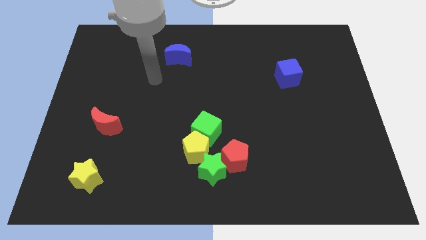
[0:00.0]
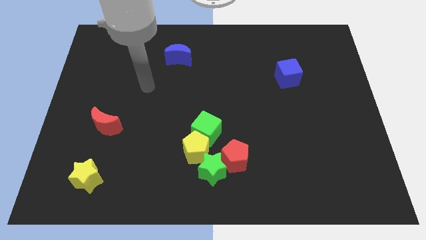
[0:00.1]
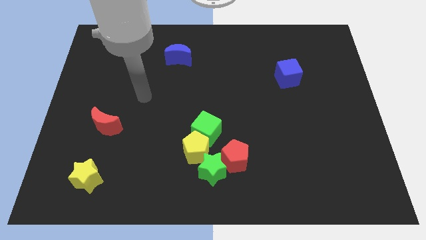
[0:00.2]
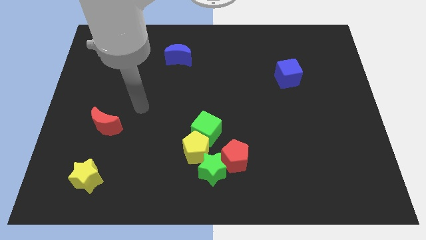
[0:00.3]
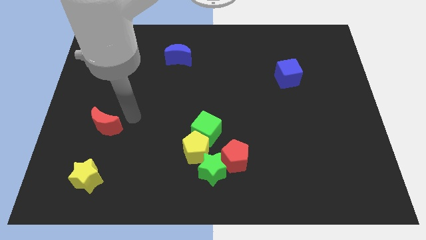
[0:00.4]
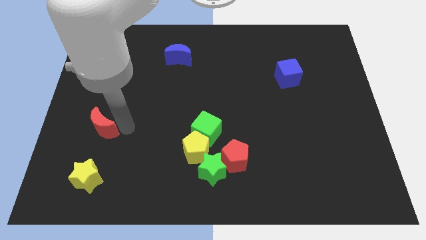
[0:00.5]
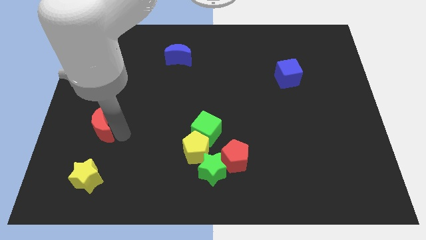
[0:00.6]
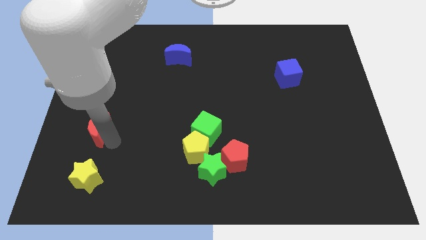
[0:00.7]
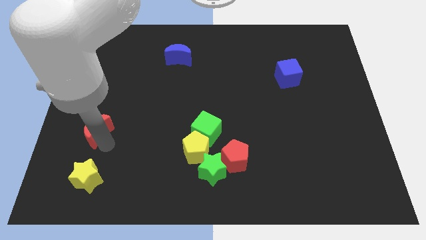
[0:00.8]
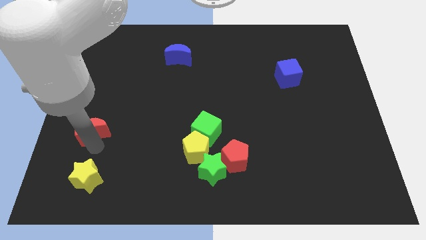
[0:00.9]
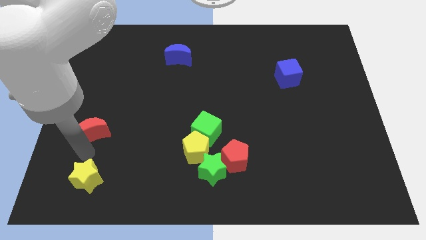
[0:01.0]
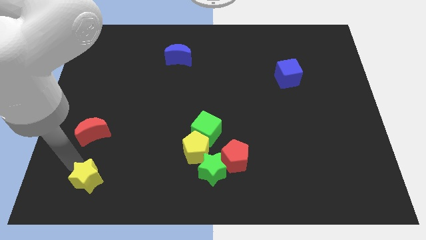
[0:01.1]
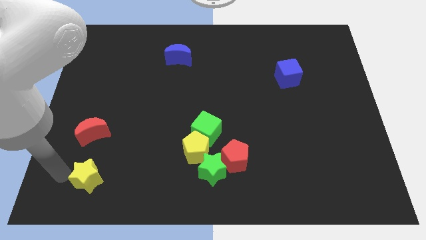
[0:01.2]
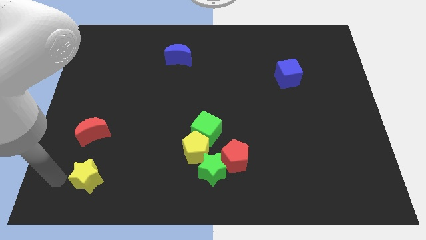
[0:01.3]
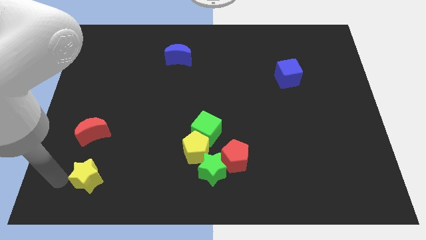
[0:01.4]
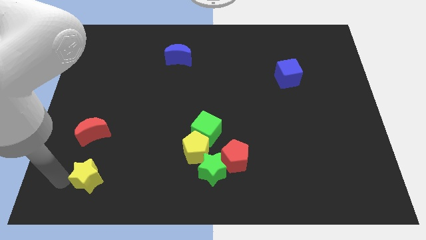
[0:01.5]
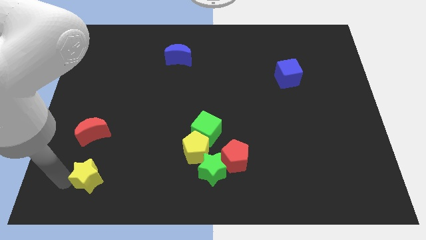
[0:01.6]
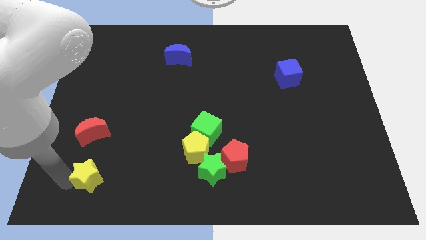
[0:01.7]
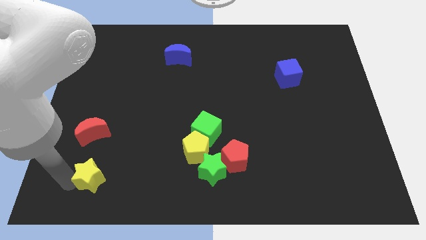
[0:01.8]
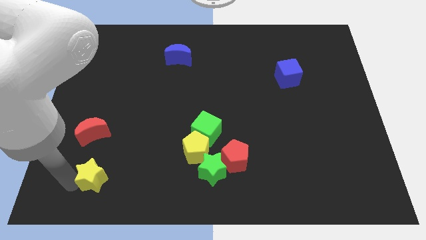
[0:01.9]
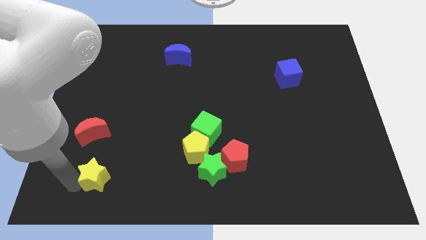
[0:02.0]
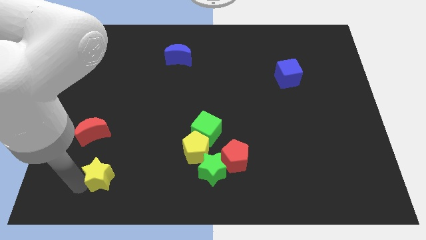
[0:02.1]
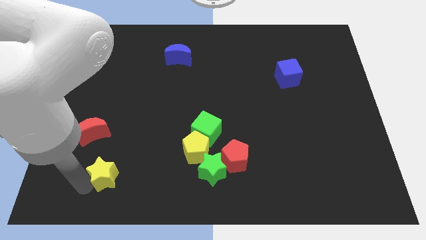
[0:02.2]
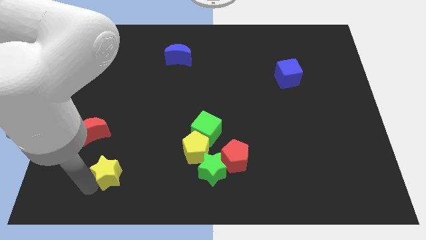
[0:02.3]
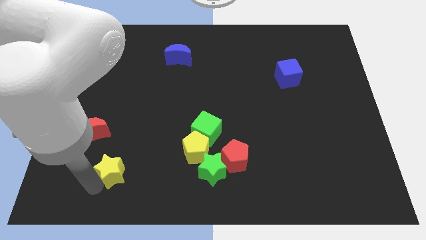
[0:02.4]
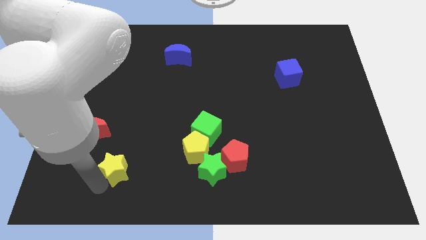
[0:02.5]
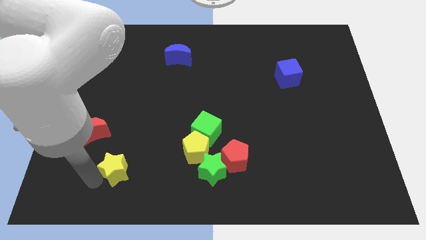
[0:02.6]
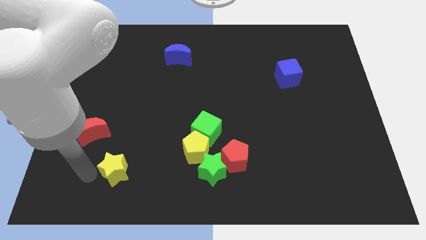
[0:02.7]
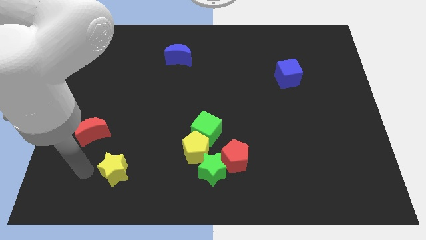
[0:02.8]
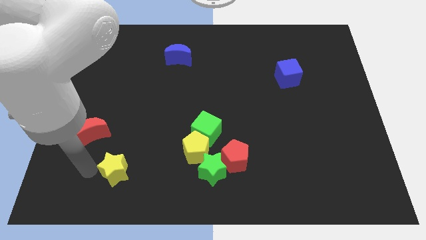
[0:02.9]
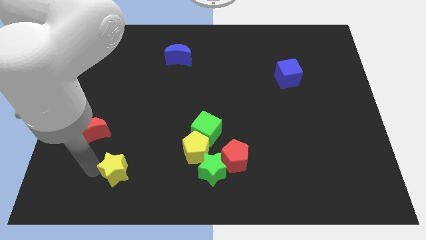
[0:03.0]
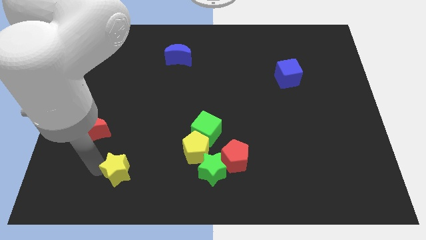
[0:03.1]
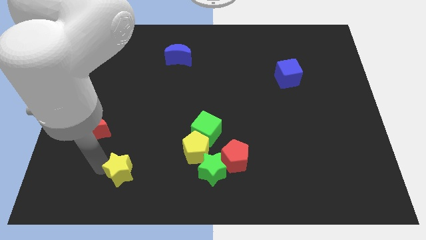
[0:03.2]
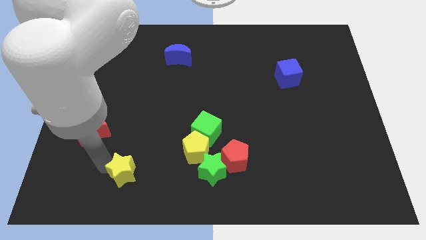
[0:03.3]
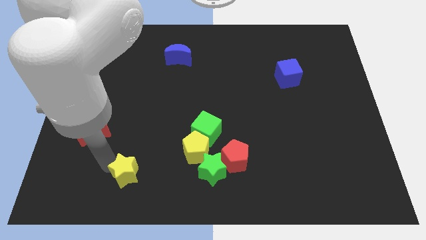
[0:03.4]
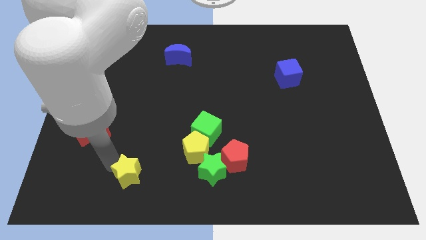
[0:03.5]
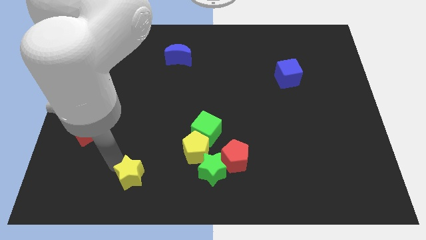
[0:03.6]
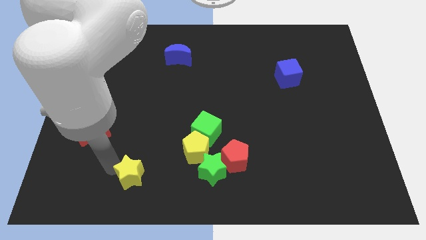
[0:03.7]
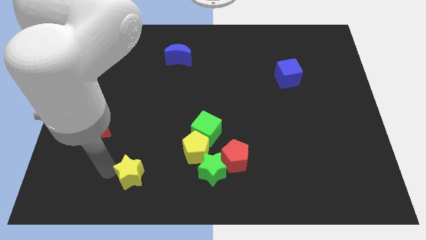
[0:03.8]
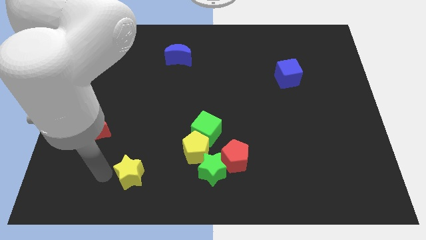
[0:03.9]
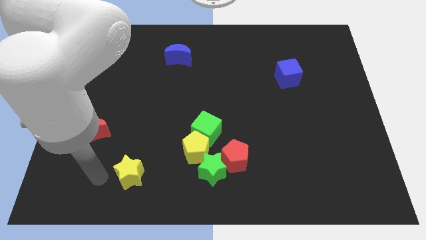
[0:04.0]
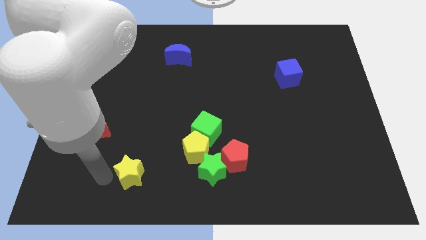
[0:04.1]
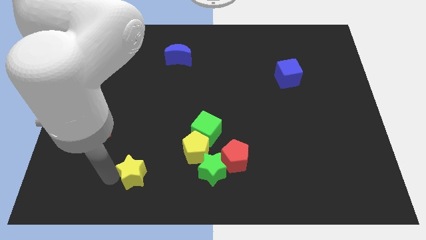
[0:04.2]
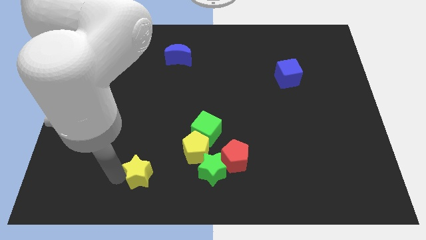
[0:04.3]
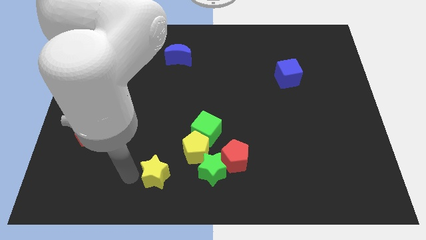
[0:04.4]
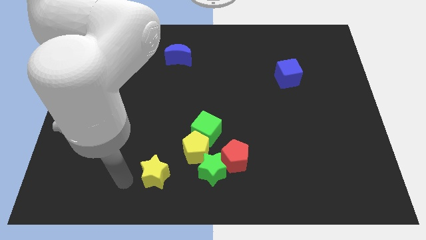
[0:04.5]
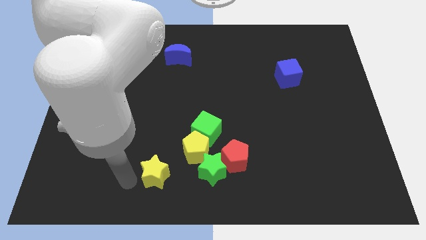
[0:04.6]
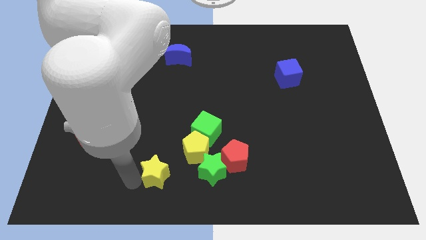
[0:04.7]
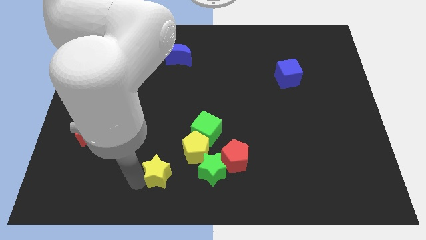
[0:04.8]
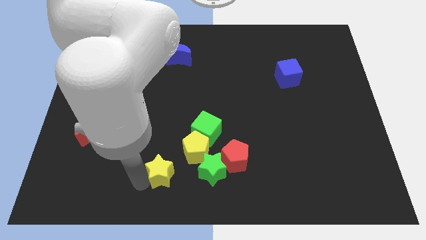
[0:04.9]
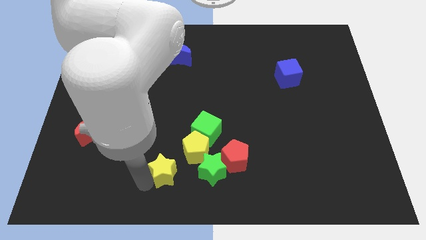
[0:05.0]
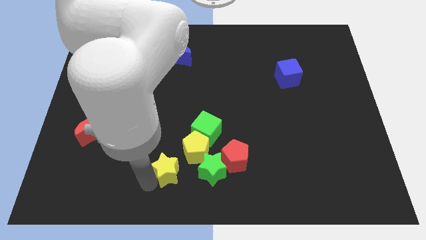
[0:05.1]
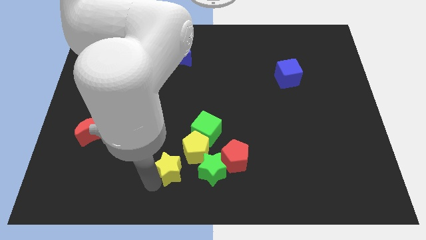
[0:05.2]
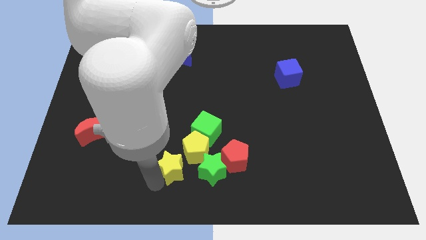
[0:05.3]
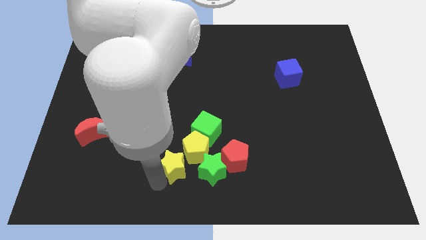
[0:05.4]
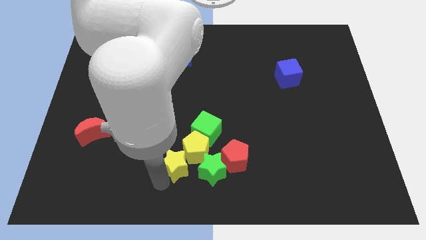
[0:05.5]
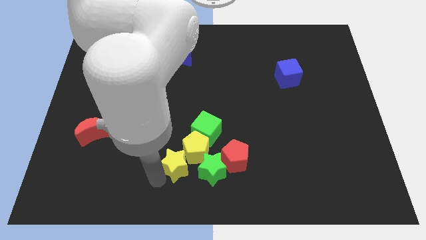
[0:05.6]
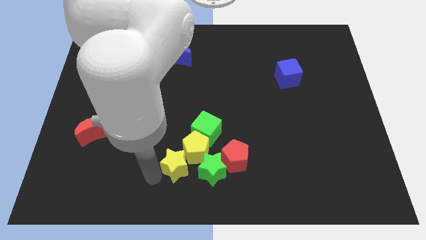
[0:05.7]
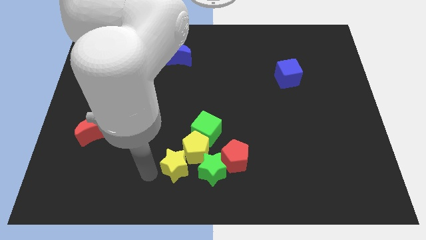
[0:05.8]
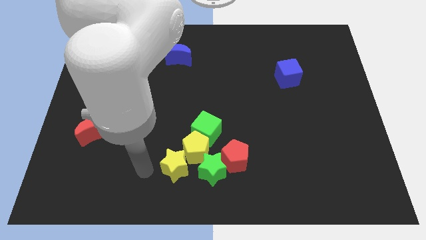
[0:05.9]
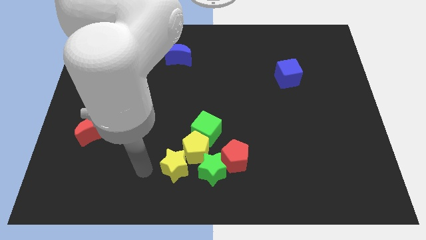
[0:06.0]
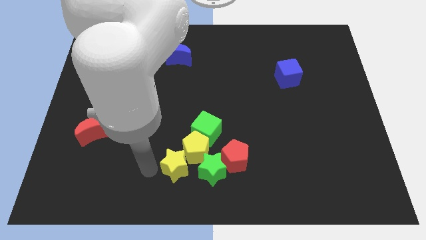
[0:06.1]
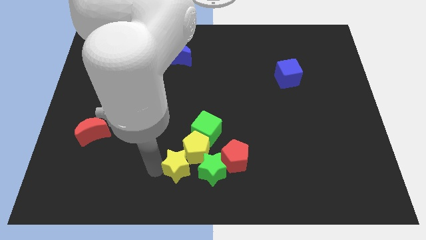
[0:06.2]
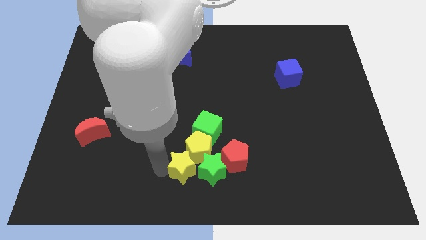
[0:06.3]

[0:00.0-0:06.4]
put the yellow star close to the green star

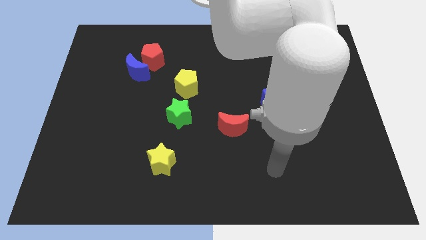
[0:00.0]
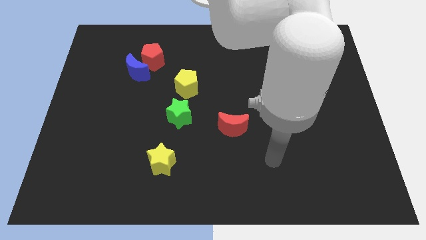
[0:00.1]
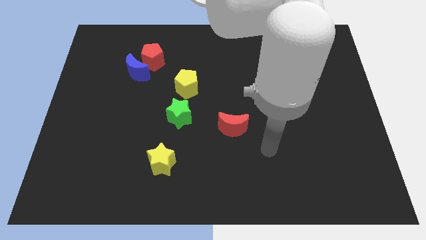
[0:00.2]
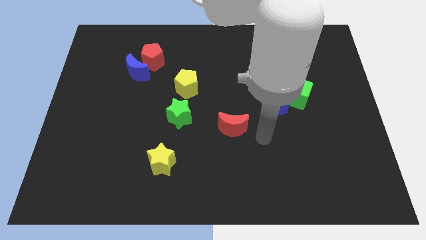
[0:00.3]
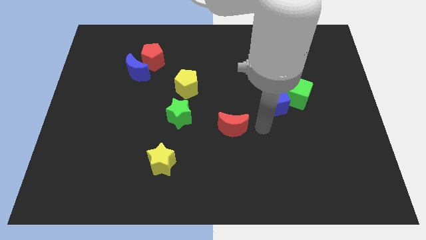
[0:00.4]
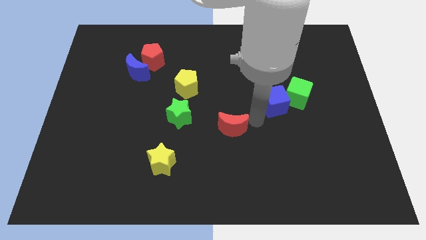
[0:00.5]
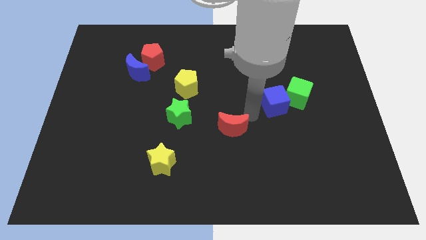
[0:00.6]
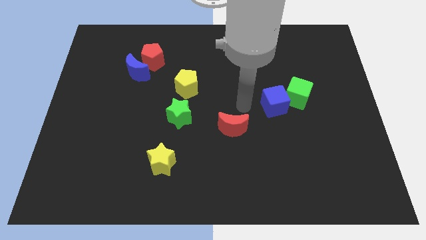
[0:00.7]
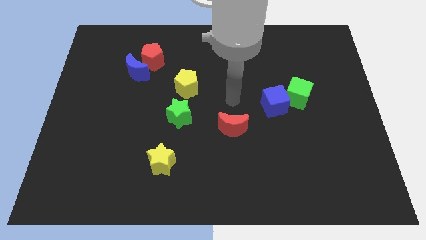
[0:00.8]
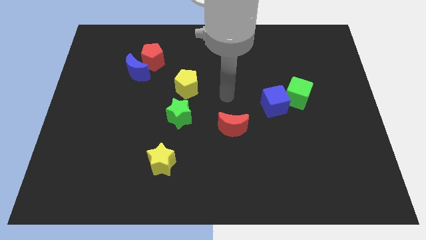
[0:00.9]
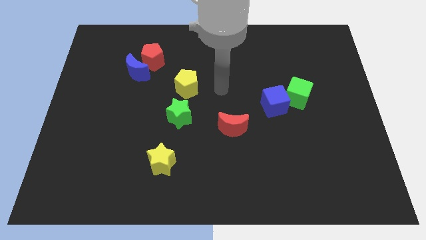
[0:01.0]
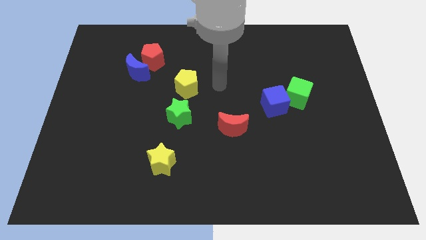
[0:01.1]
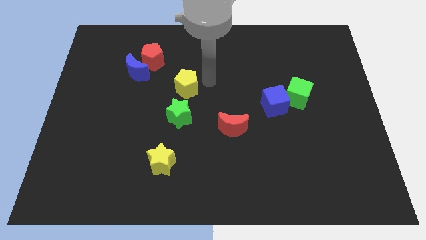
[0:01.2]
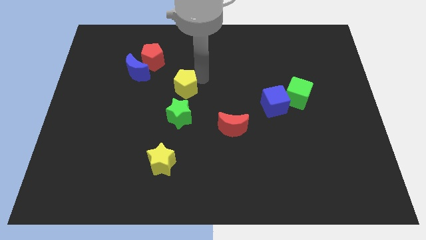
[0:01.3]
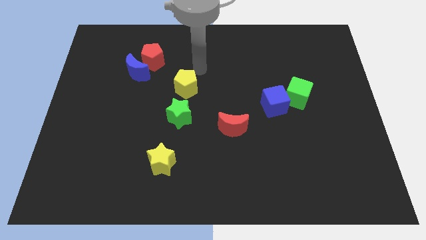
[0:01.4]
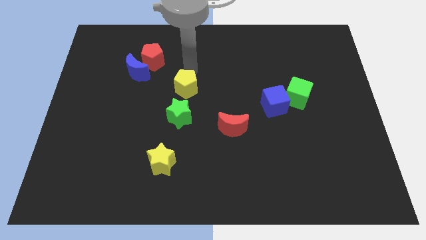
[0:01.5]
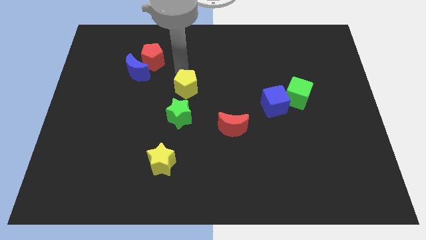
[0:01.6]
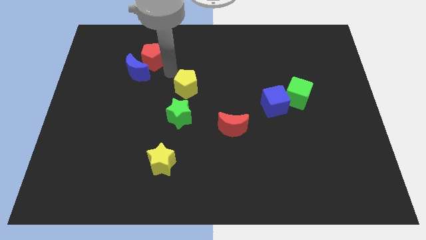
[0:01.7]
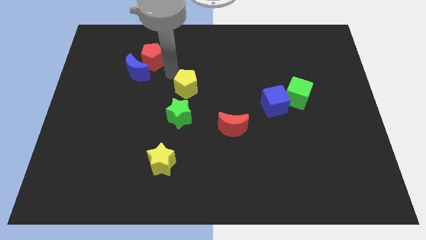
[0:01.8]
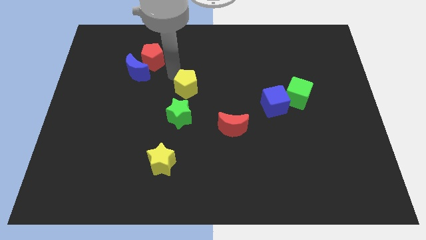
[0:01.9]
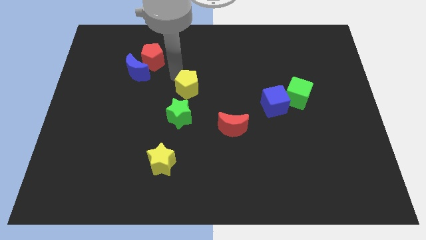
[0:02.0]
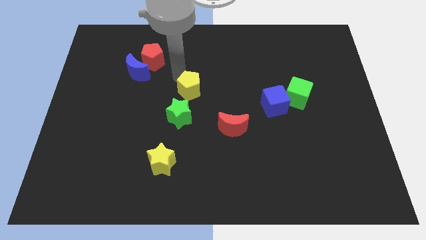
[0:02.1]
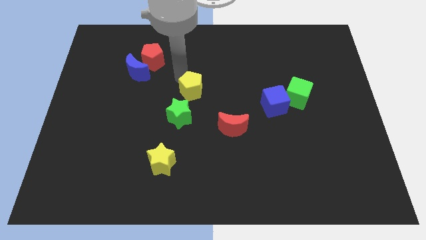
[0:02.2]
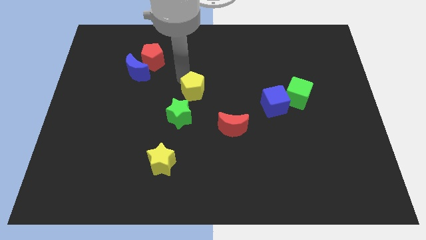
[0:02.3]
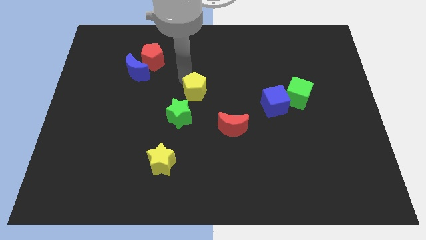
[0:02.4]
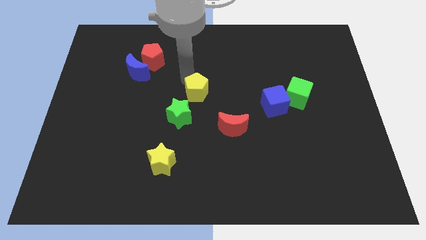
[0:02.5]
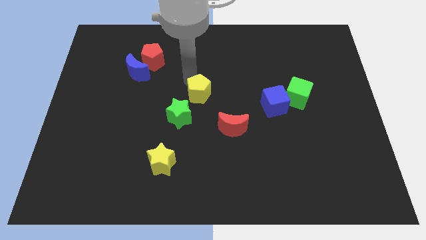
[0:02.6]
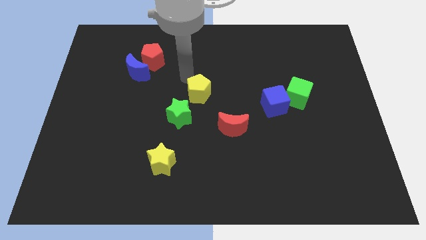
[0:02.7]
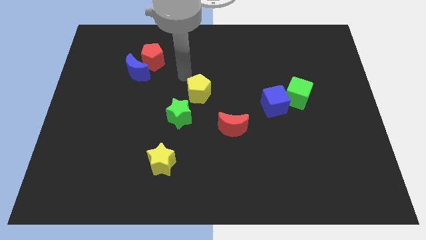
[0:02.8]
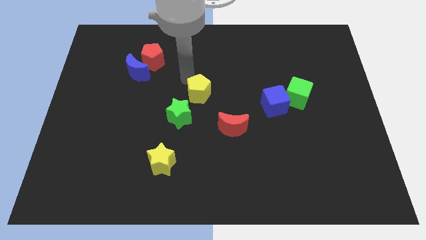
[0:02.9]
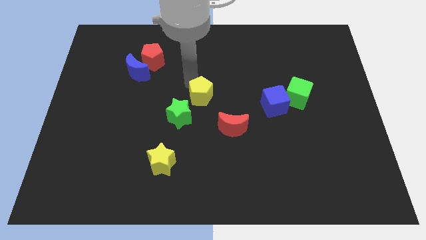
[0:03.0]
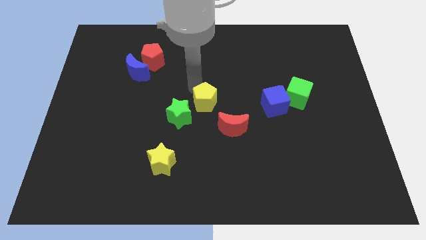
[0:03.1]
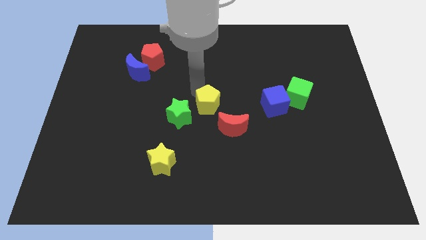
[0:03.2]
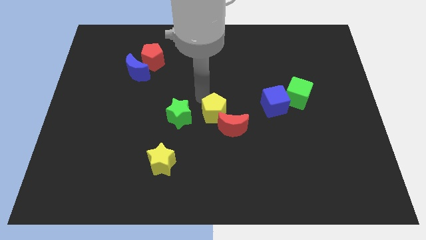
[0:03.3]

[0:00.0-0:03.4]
move the yellow pentagon next to the red moon
